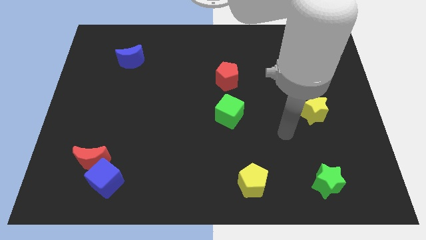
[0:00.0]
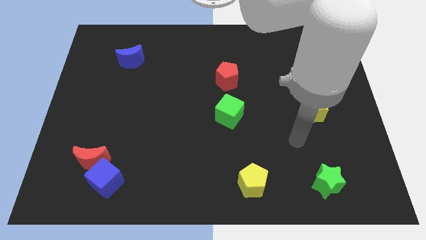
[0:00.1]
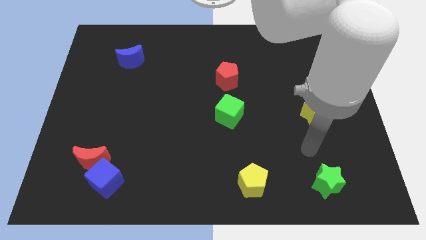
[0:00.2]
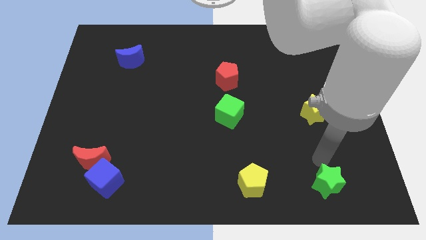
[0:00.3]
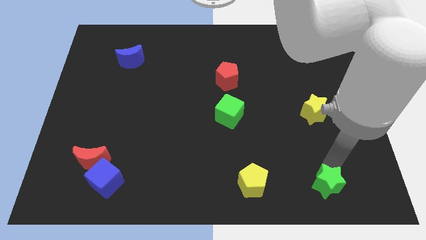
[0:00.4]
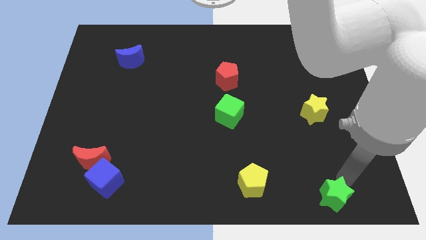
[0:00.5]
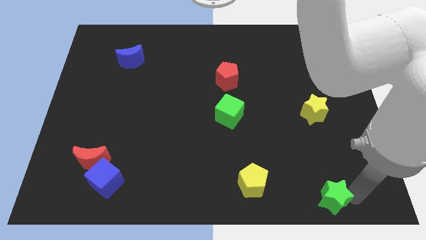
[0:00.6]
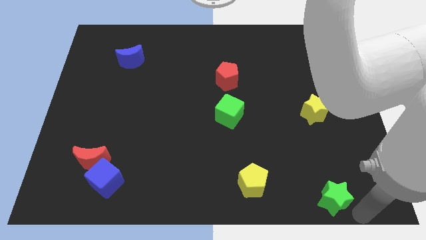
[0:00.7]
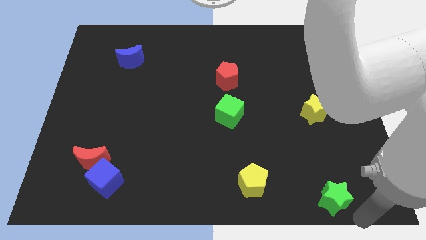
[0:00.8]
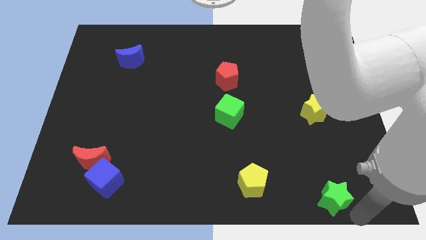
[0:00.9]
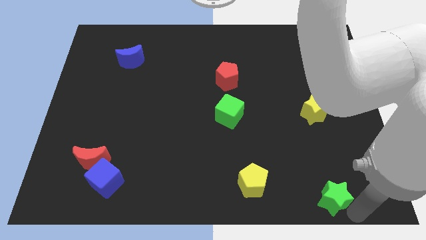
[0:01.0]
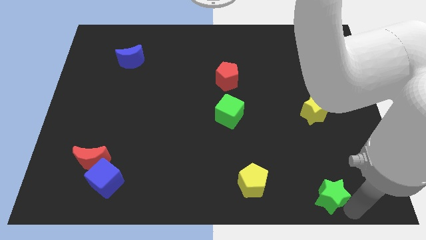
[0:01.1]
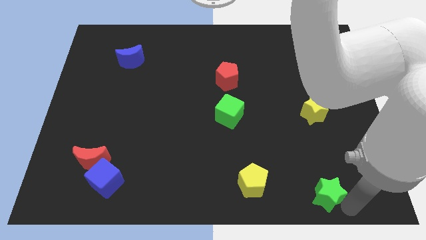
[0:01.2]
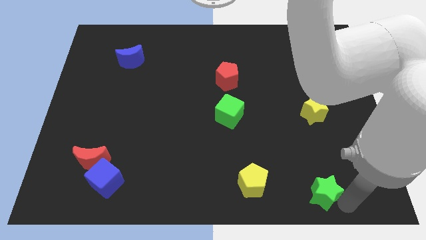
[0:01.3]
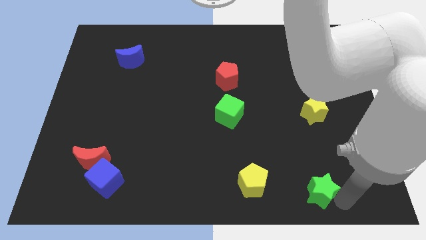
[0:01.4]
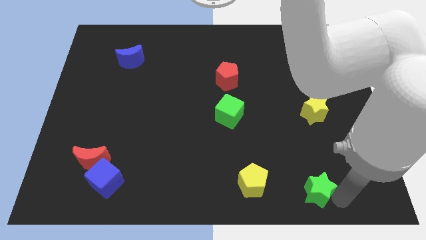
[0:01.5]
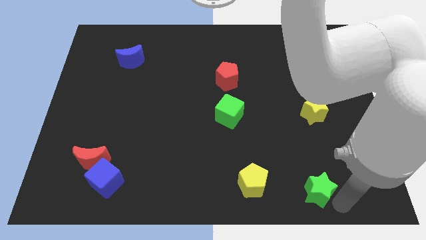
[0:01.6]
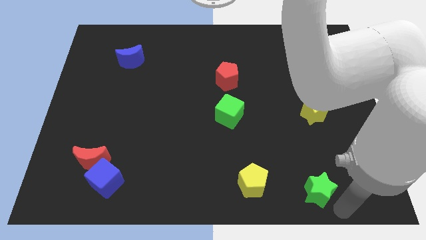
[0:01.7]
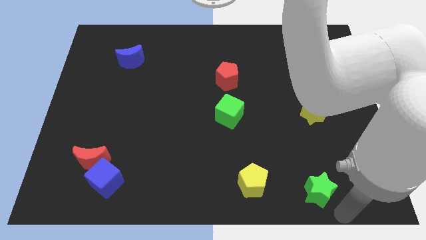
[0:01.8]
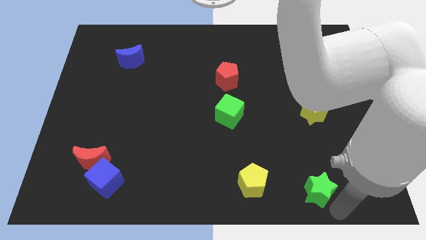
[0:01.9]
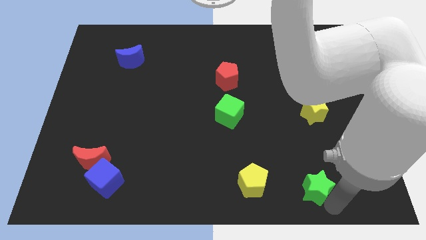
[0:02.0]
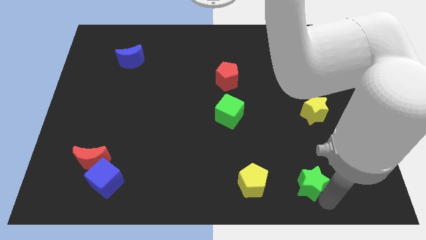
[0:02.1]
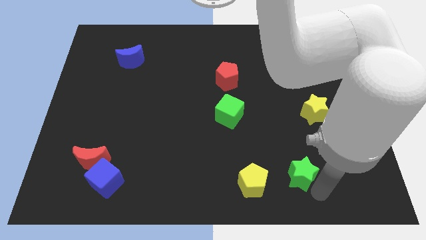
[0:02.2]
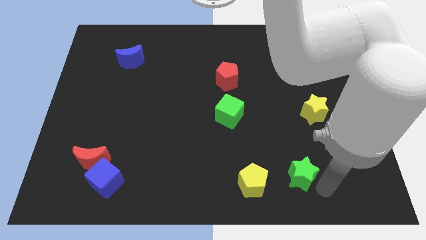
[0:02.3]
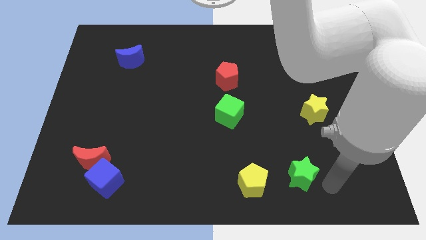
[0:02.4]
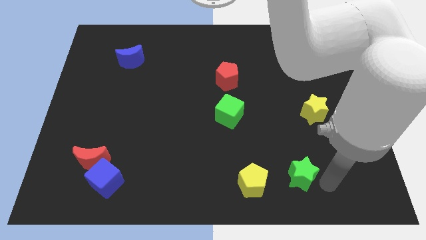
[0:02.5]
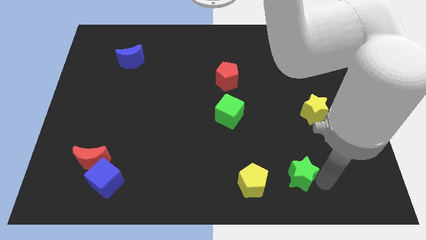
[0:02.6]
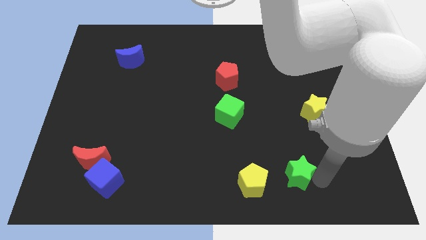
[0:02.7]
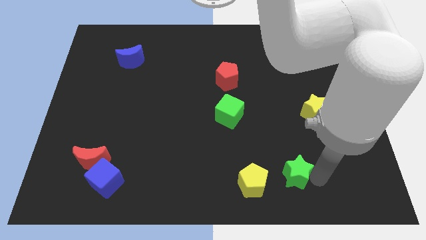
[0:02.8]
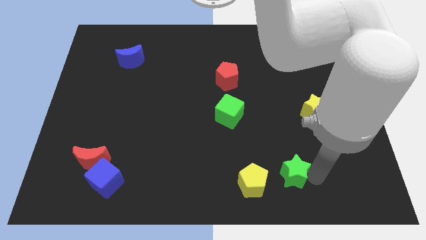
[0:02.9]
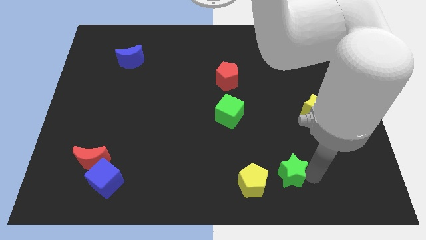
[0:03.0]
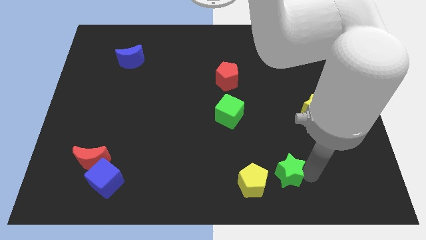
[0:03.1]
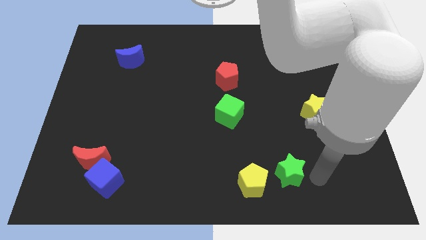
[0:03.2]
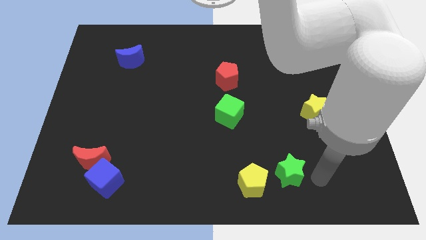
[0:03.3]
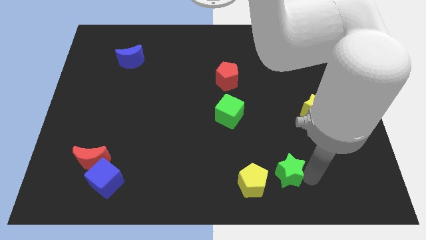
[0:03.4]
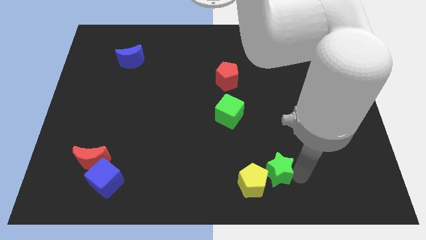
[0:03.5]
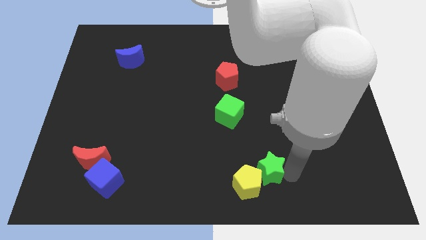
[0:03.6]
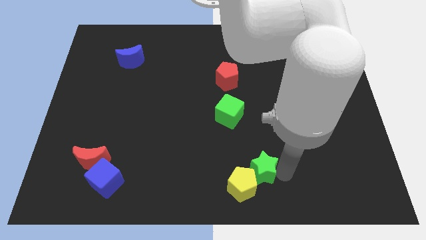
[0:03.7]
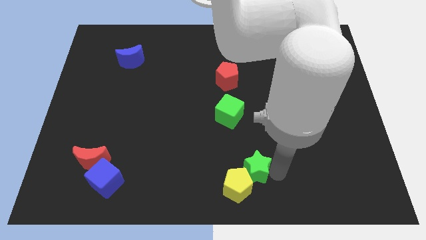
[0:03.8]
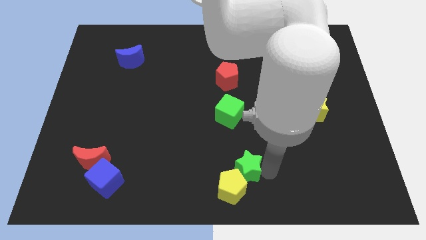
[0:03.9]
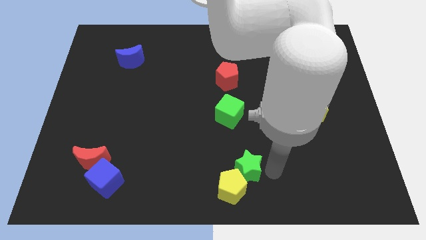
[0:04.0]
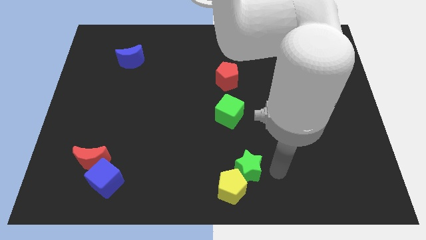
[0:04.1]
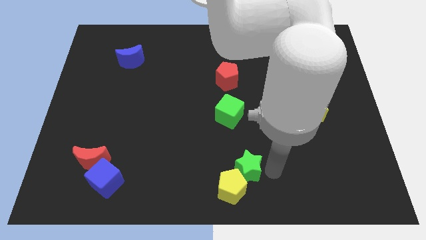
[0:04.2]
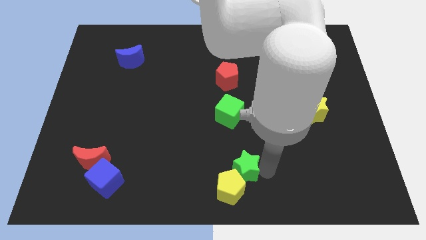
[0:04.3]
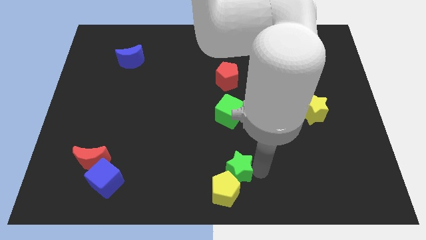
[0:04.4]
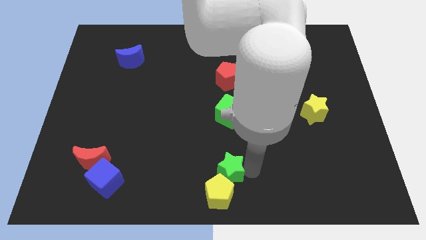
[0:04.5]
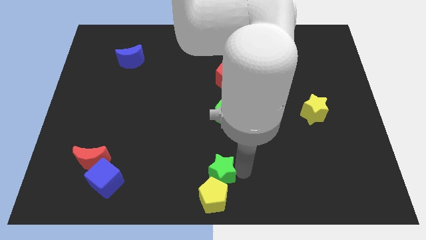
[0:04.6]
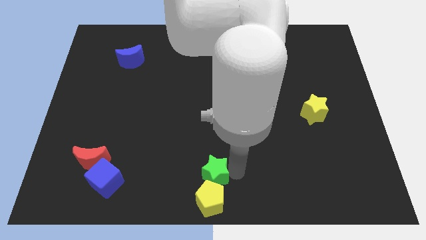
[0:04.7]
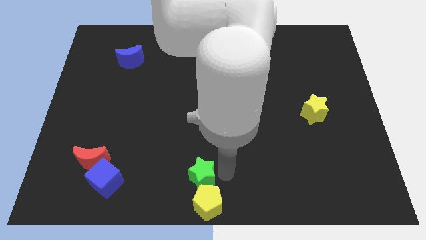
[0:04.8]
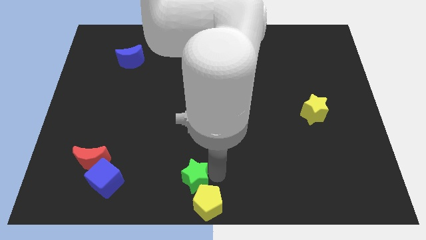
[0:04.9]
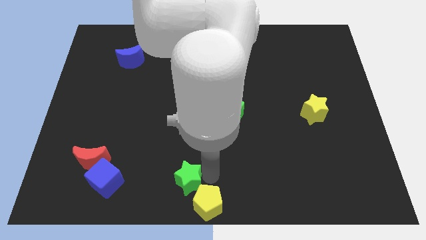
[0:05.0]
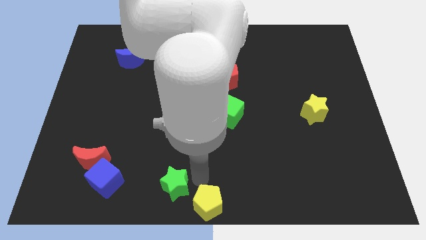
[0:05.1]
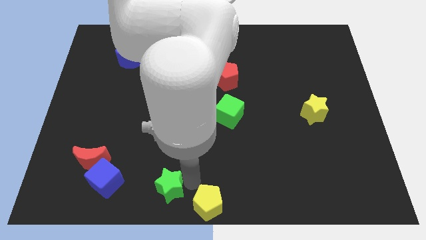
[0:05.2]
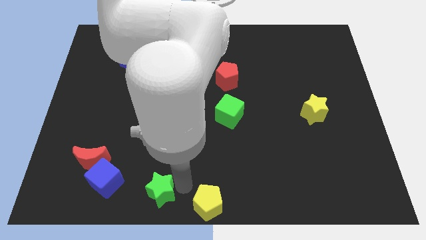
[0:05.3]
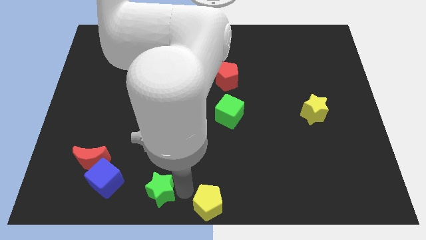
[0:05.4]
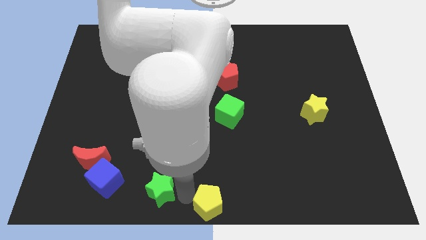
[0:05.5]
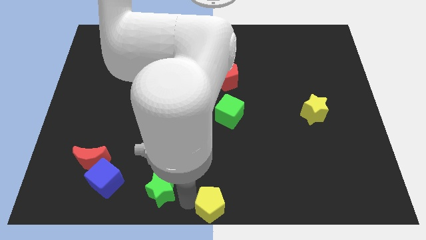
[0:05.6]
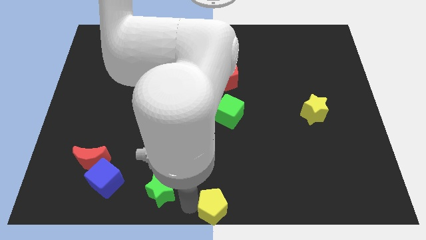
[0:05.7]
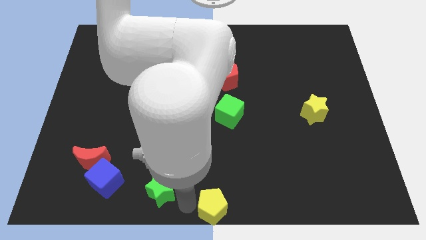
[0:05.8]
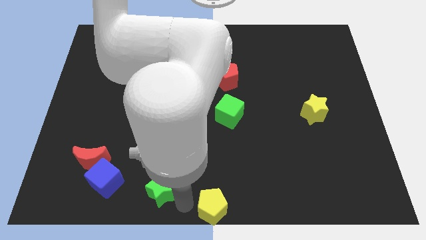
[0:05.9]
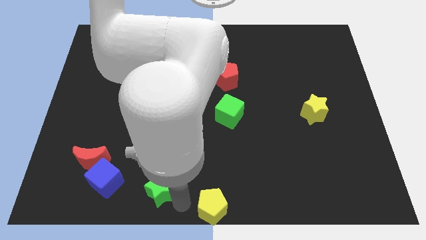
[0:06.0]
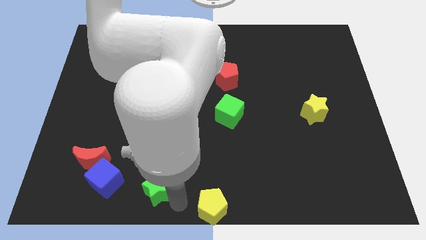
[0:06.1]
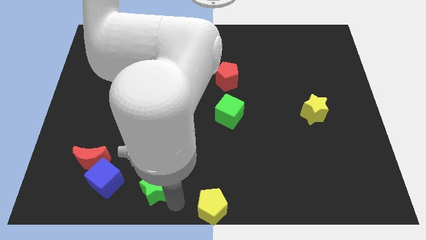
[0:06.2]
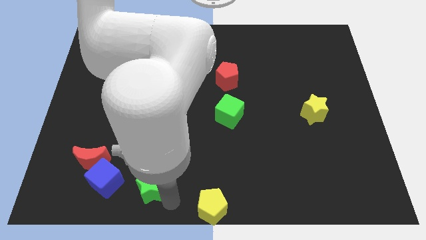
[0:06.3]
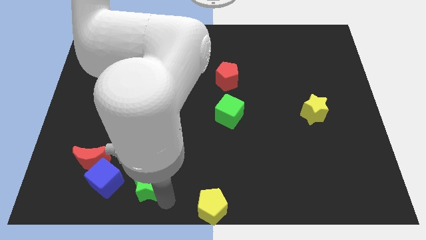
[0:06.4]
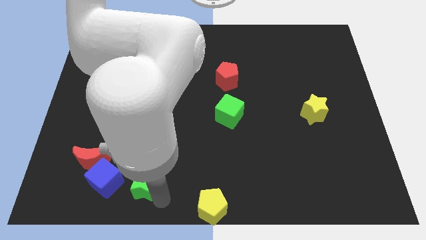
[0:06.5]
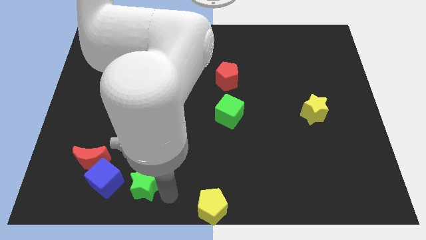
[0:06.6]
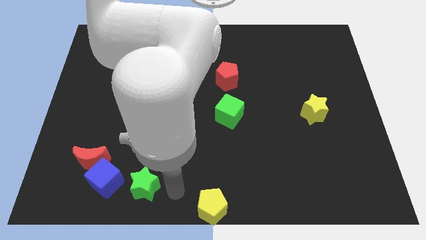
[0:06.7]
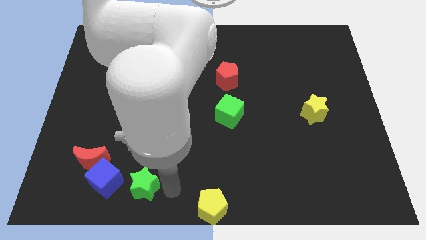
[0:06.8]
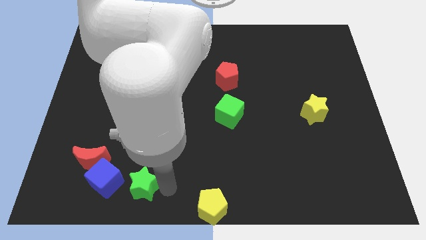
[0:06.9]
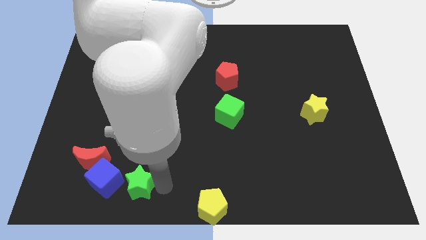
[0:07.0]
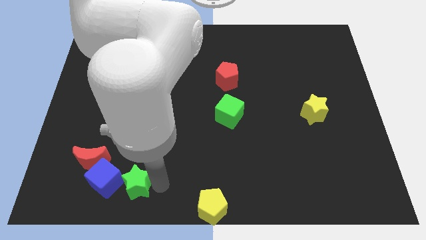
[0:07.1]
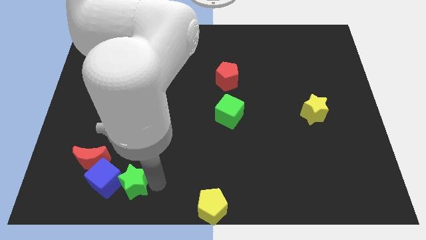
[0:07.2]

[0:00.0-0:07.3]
push the green star to the blue cube
